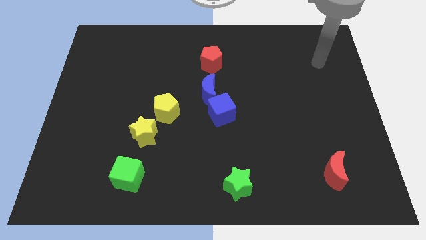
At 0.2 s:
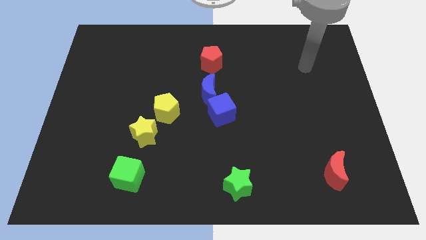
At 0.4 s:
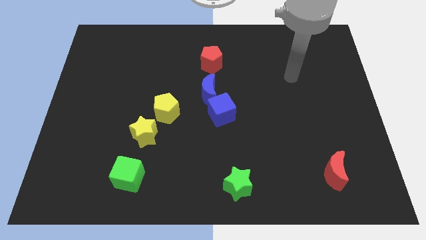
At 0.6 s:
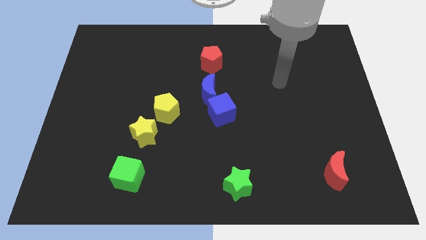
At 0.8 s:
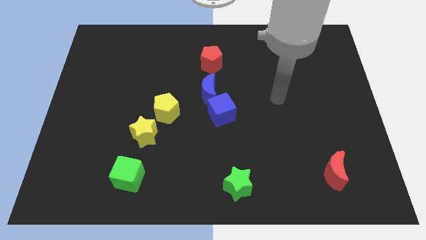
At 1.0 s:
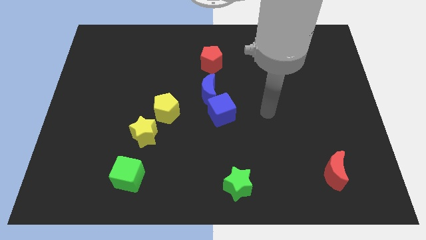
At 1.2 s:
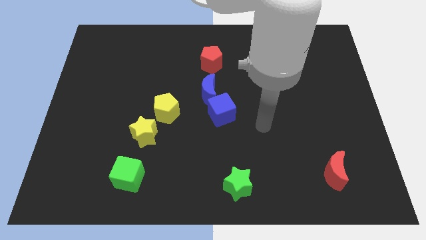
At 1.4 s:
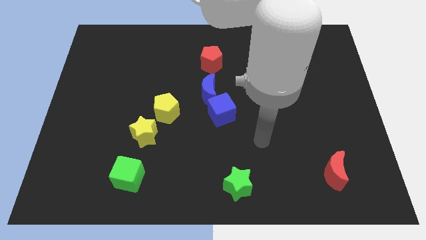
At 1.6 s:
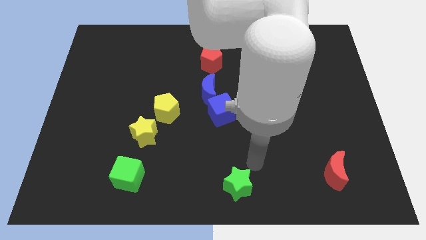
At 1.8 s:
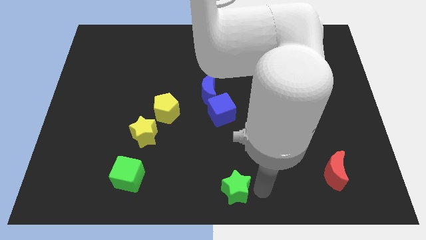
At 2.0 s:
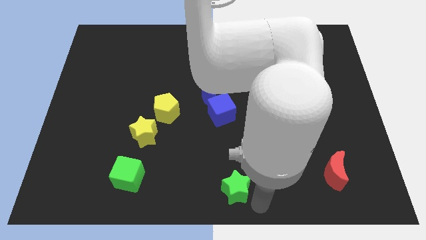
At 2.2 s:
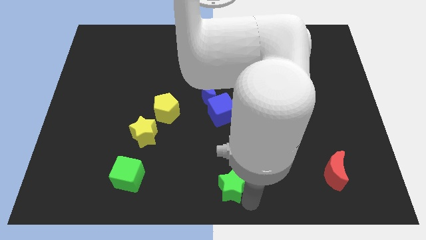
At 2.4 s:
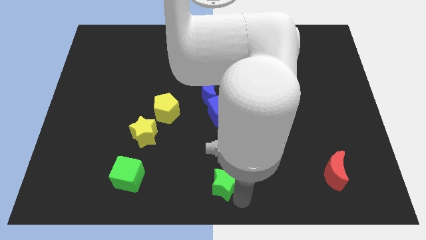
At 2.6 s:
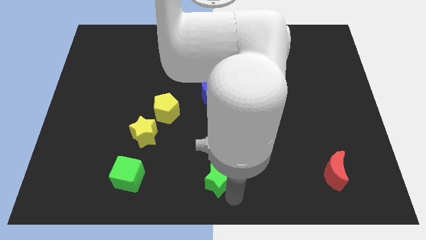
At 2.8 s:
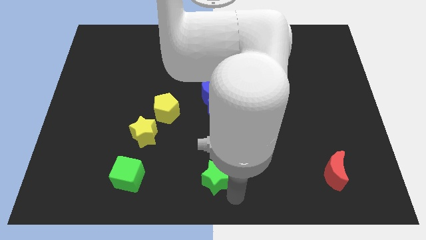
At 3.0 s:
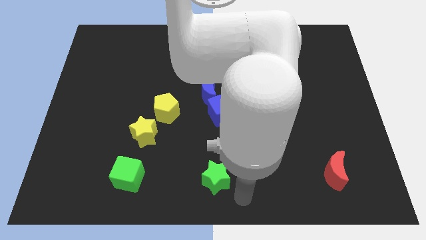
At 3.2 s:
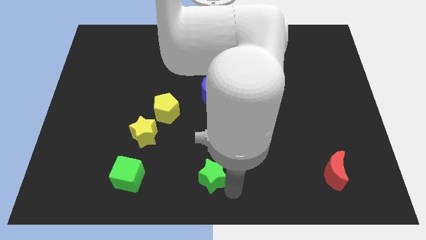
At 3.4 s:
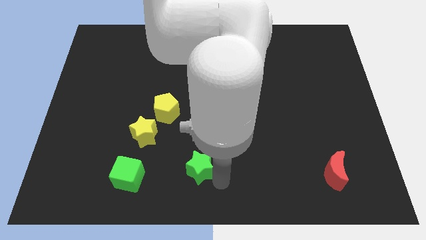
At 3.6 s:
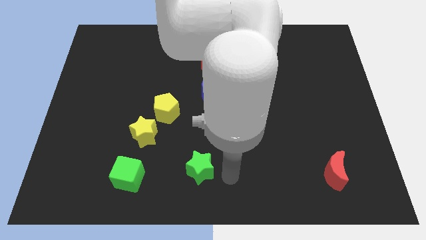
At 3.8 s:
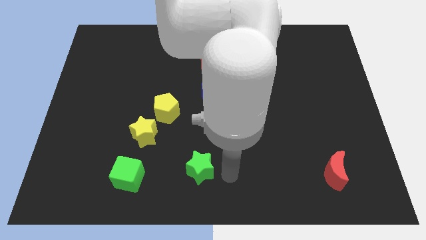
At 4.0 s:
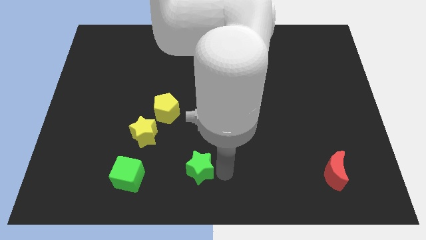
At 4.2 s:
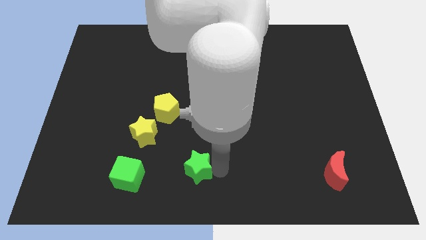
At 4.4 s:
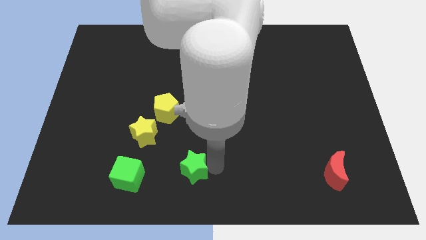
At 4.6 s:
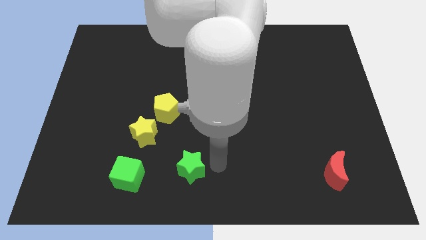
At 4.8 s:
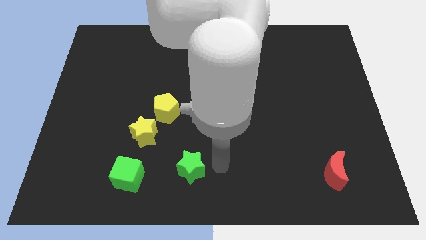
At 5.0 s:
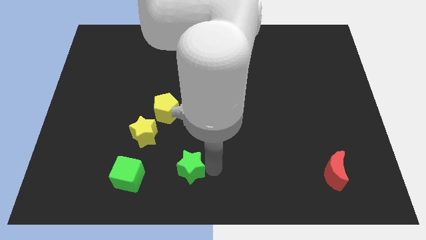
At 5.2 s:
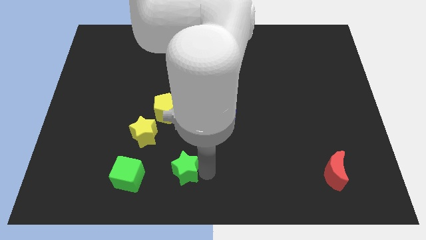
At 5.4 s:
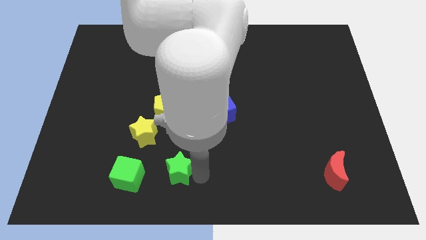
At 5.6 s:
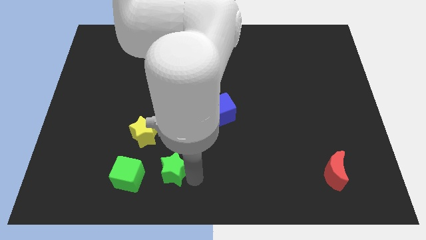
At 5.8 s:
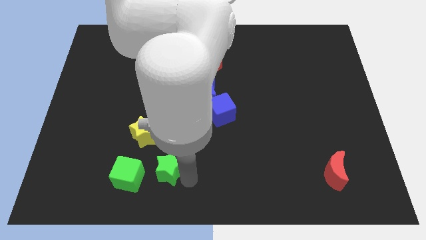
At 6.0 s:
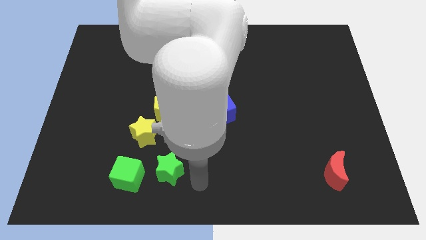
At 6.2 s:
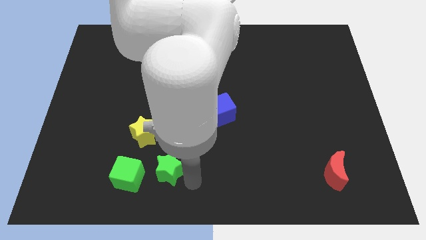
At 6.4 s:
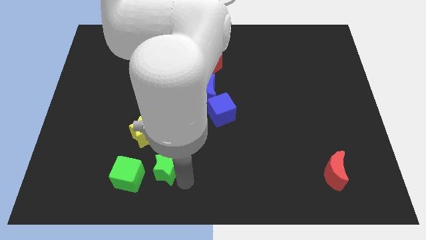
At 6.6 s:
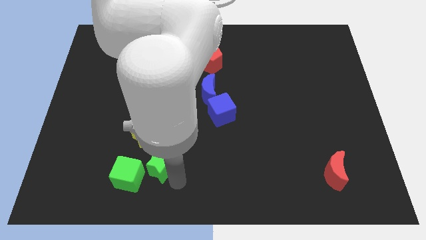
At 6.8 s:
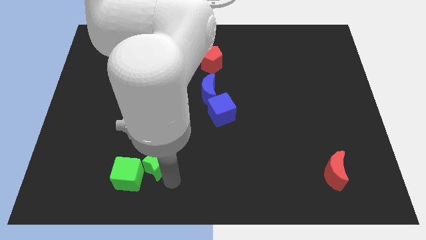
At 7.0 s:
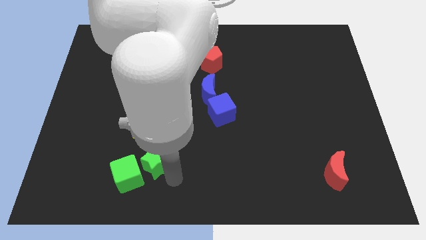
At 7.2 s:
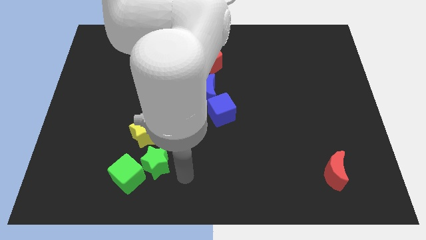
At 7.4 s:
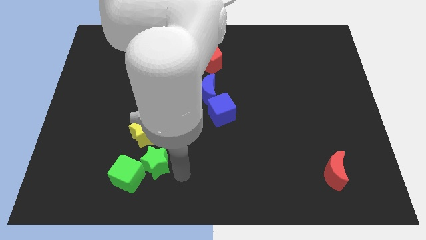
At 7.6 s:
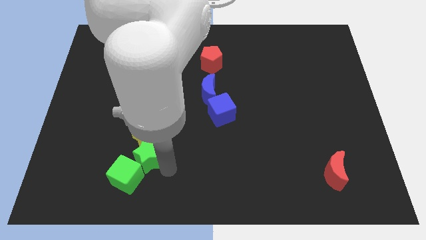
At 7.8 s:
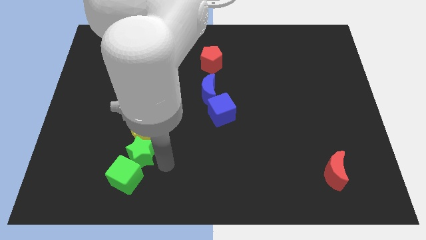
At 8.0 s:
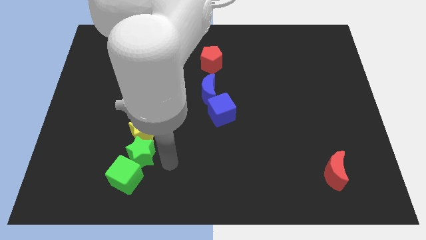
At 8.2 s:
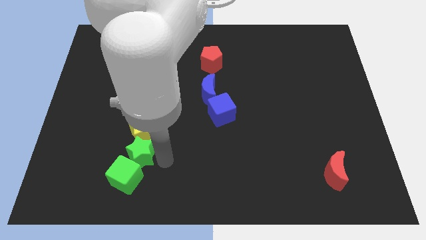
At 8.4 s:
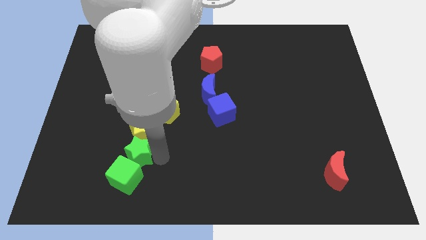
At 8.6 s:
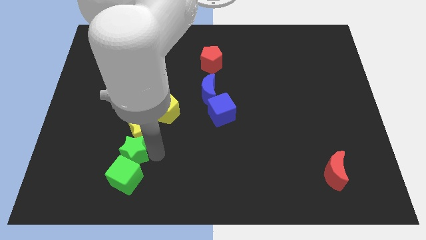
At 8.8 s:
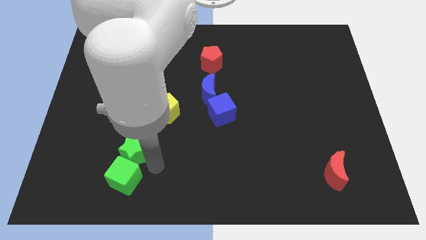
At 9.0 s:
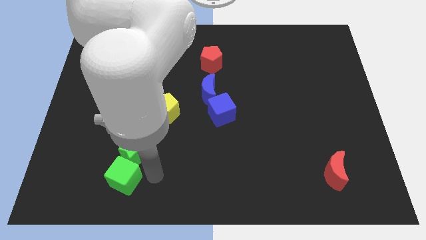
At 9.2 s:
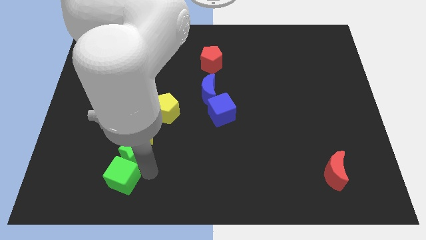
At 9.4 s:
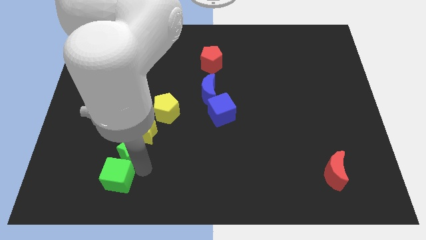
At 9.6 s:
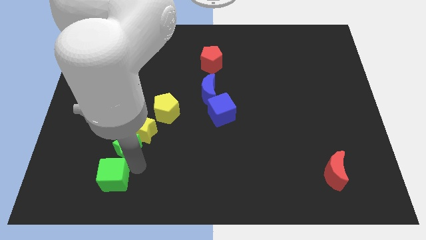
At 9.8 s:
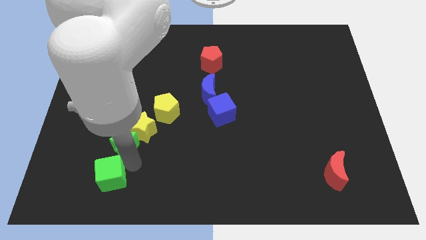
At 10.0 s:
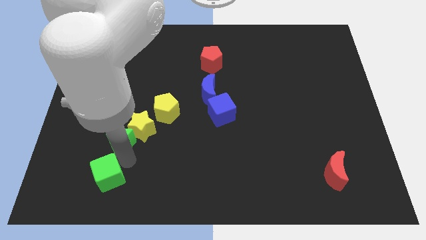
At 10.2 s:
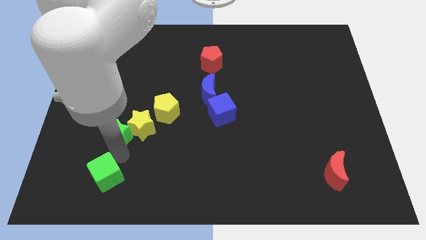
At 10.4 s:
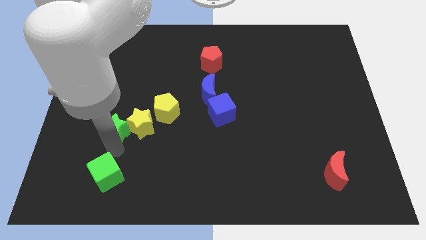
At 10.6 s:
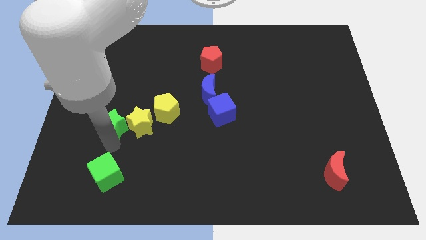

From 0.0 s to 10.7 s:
slide the green star to the top left of the yellow star

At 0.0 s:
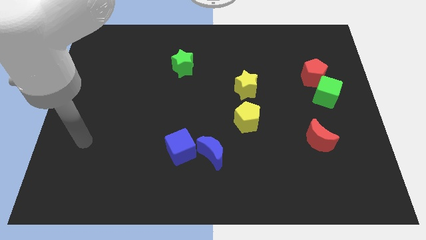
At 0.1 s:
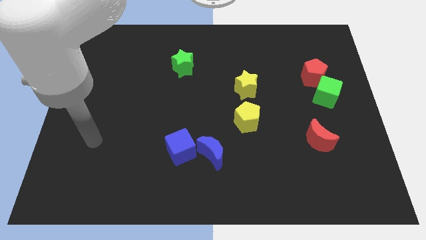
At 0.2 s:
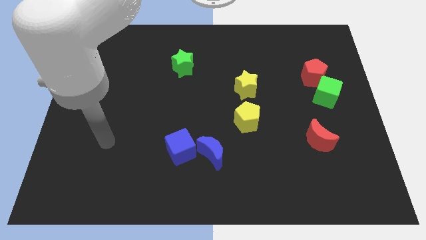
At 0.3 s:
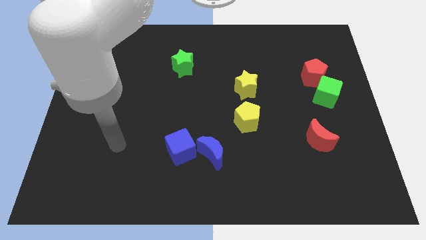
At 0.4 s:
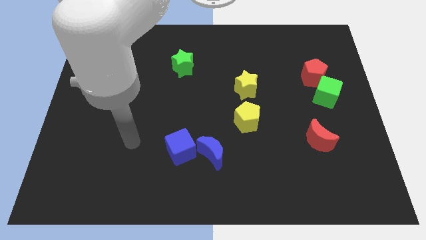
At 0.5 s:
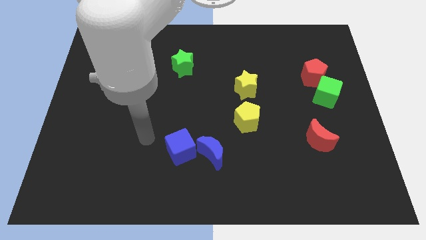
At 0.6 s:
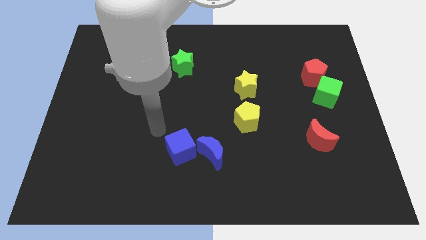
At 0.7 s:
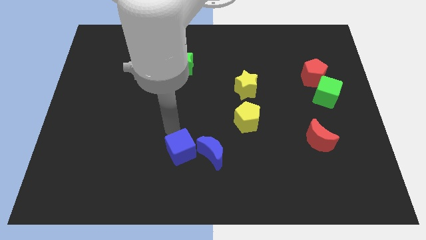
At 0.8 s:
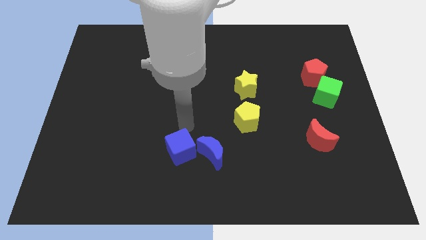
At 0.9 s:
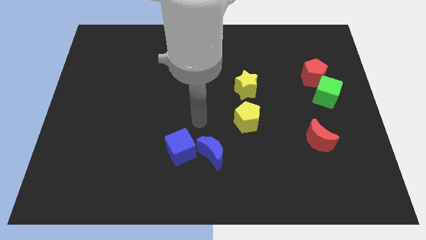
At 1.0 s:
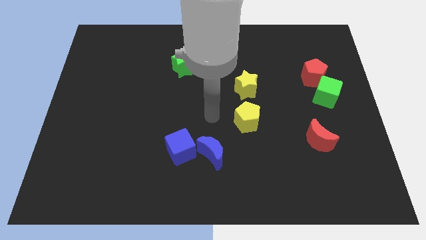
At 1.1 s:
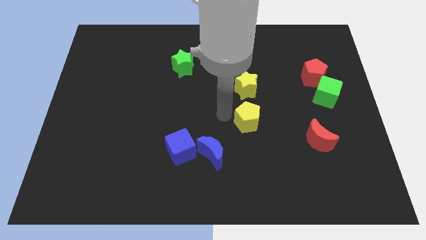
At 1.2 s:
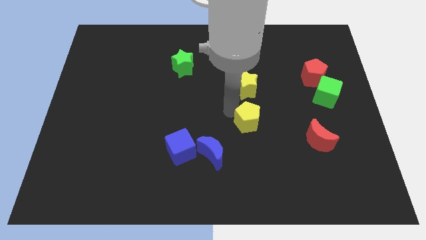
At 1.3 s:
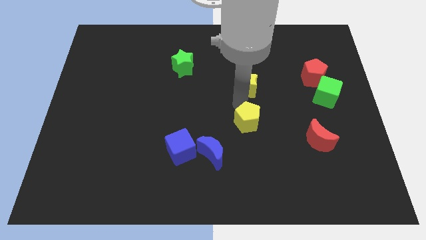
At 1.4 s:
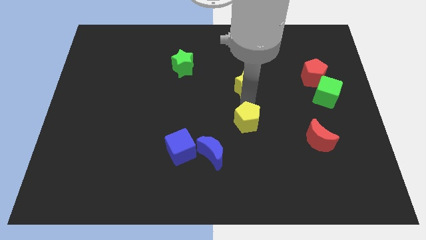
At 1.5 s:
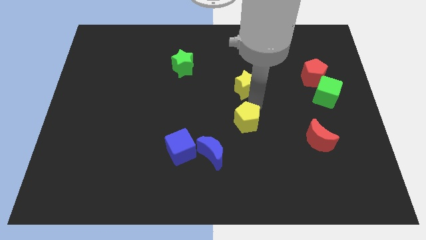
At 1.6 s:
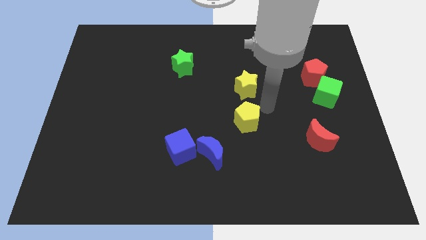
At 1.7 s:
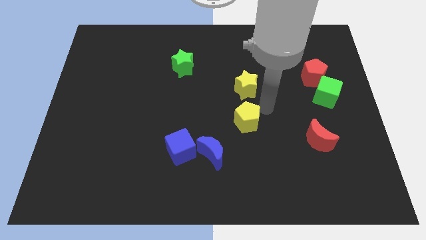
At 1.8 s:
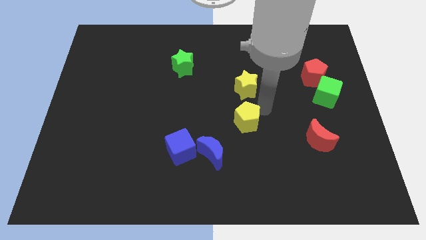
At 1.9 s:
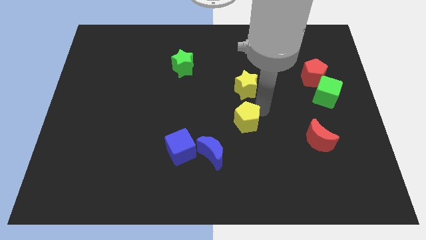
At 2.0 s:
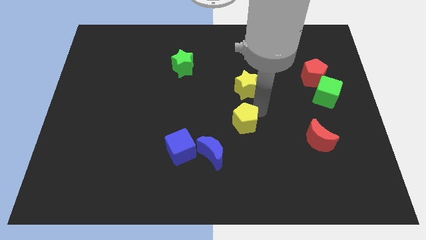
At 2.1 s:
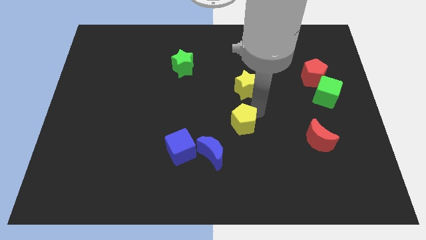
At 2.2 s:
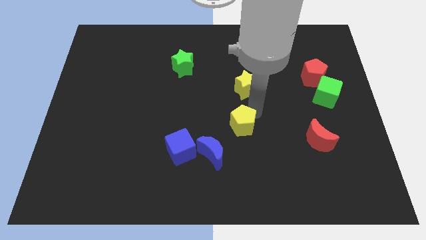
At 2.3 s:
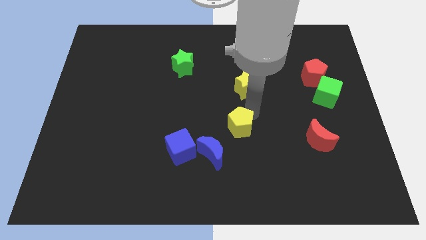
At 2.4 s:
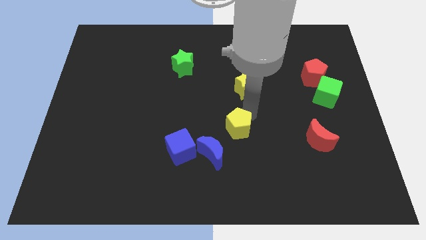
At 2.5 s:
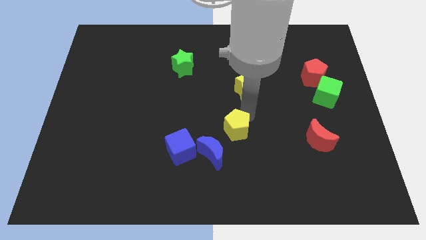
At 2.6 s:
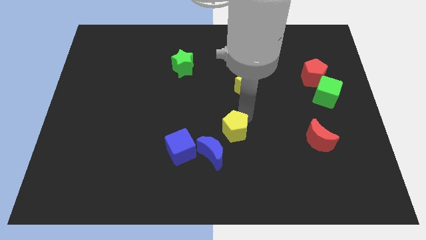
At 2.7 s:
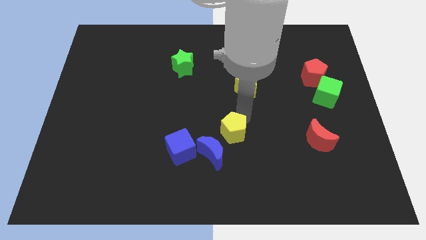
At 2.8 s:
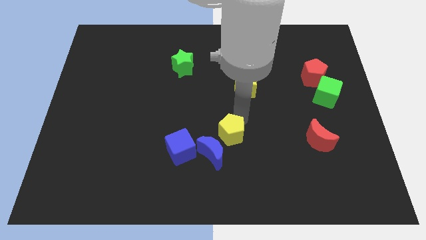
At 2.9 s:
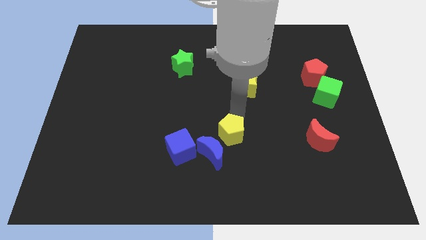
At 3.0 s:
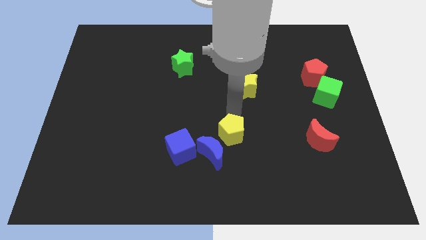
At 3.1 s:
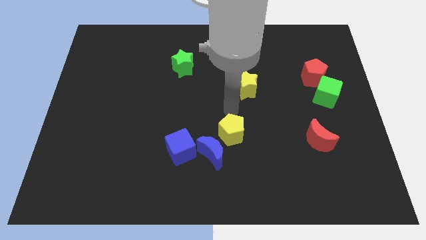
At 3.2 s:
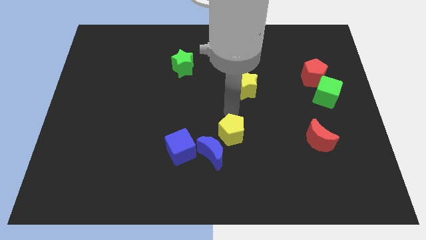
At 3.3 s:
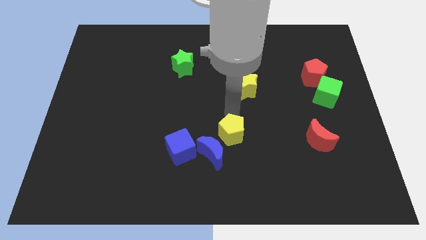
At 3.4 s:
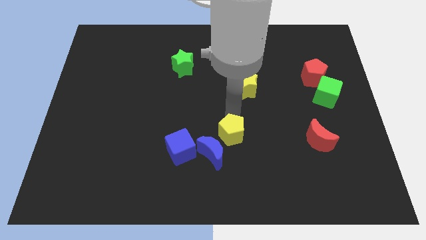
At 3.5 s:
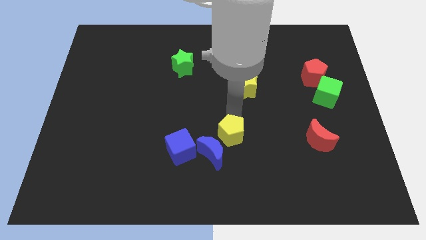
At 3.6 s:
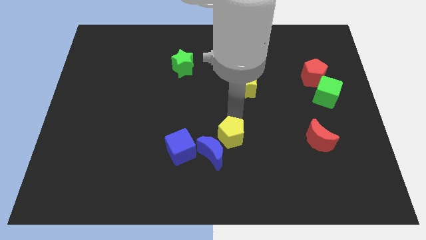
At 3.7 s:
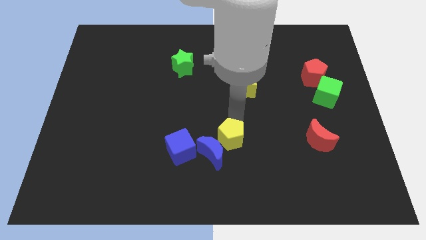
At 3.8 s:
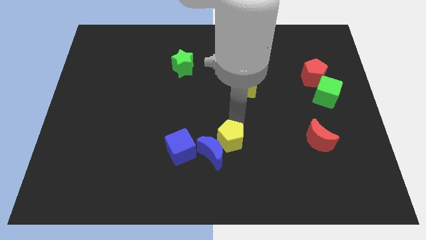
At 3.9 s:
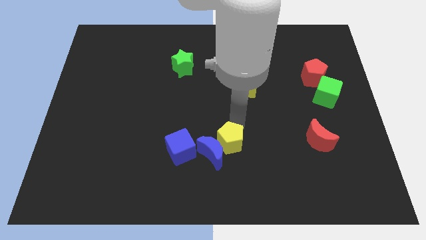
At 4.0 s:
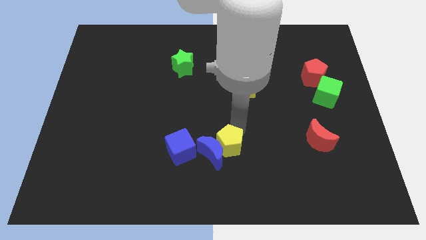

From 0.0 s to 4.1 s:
move the yellow pentagon to the bottom right of the blue moon
